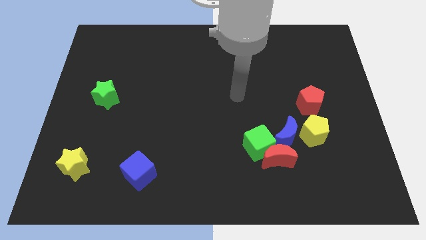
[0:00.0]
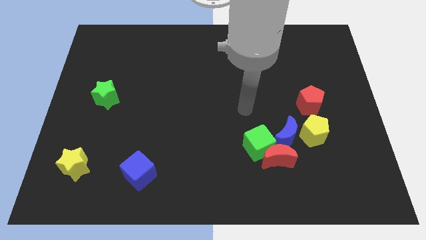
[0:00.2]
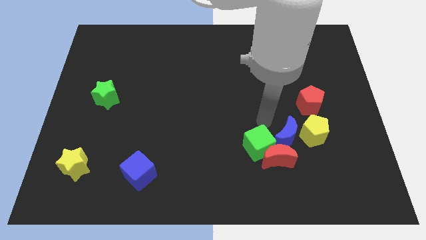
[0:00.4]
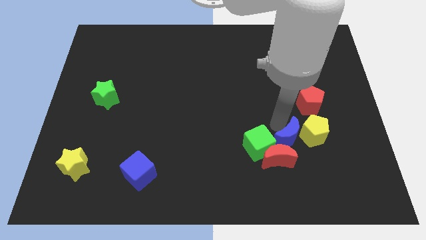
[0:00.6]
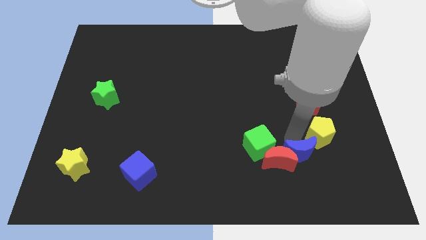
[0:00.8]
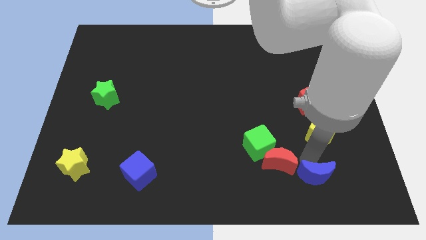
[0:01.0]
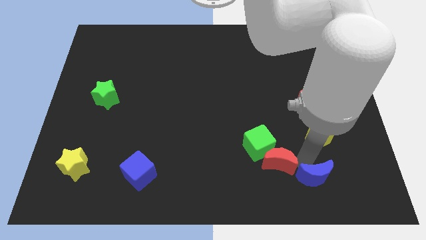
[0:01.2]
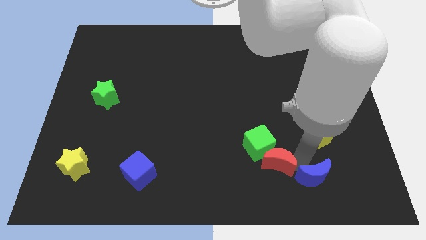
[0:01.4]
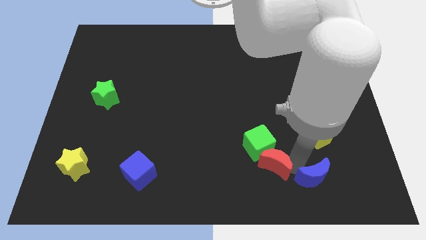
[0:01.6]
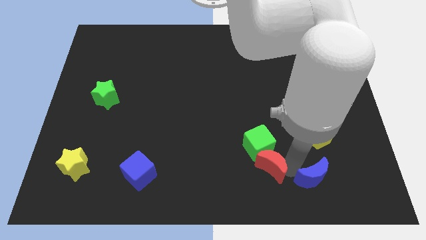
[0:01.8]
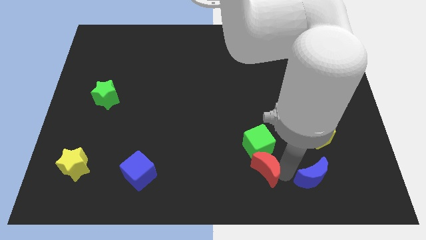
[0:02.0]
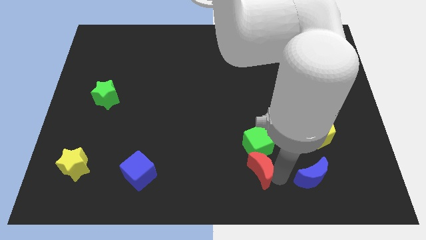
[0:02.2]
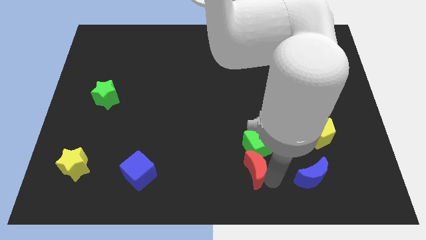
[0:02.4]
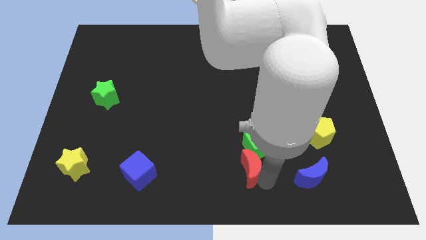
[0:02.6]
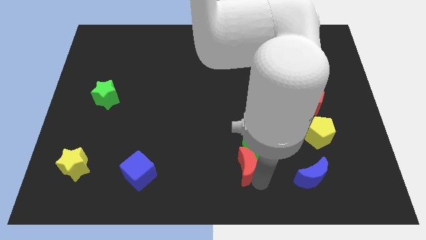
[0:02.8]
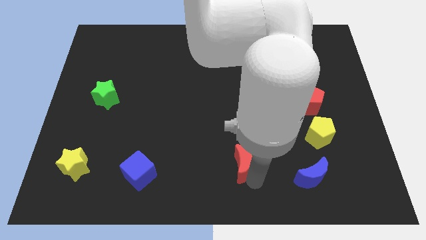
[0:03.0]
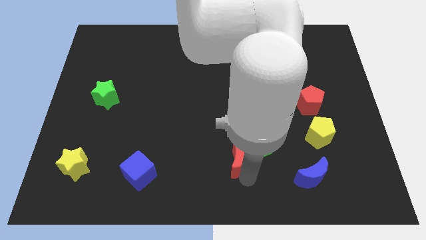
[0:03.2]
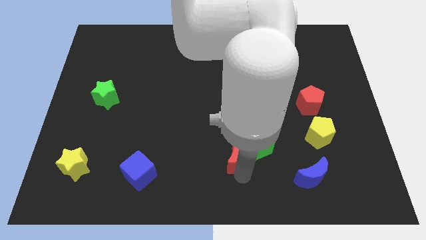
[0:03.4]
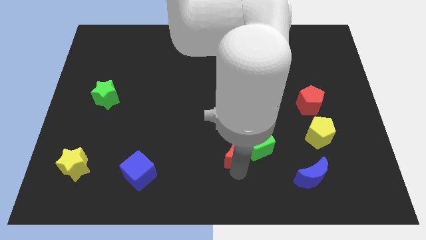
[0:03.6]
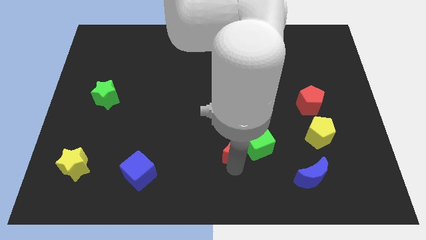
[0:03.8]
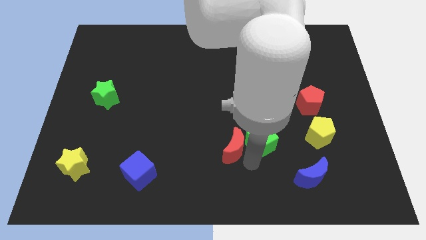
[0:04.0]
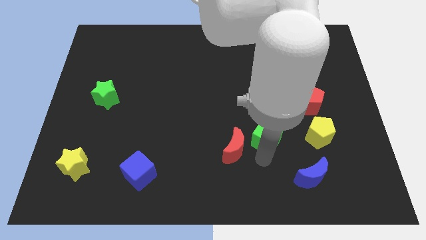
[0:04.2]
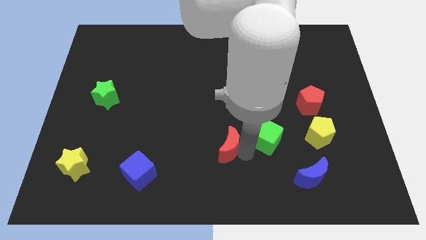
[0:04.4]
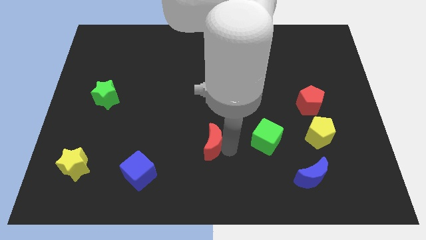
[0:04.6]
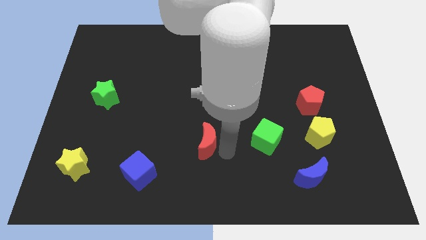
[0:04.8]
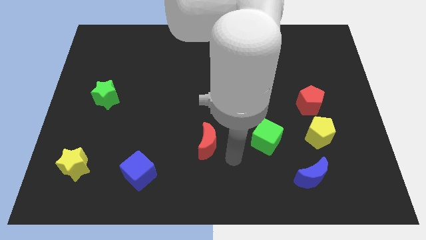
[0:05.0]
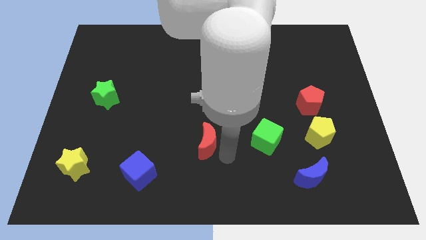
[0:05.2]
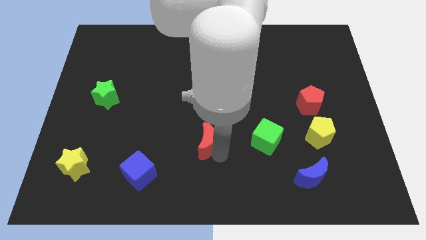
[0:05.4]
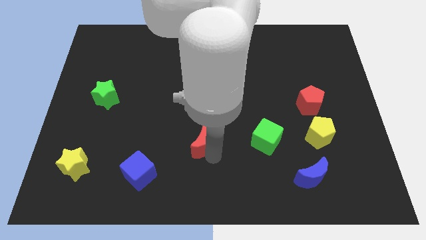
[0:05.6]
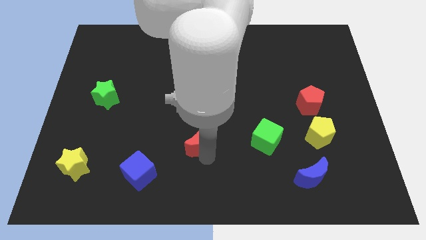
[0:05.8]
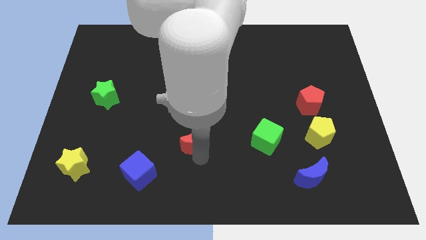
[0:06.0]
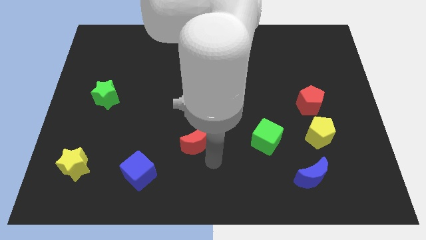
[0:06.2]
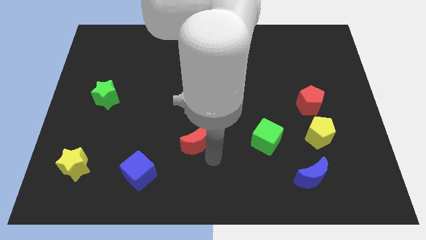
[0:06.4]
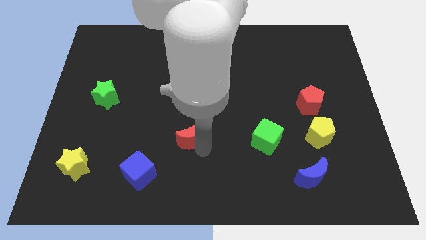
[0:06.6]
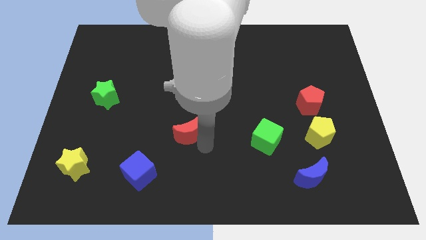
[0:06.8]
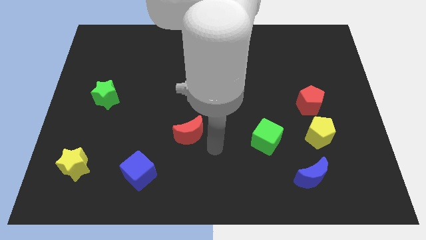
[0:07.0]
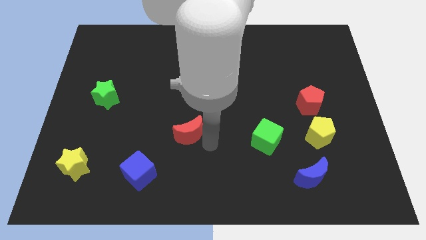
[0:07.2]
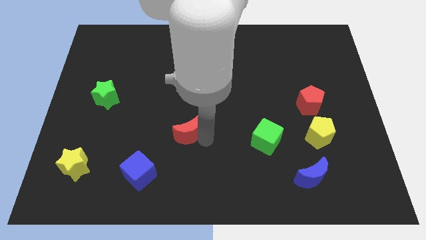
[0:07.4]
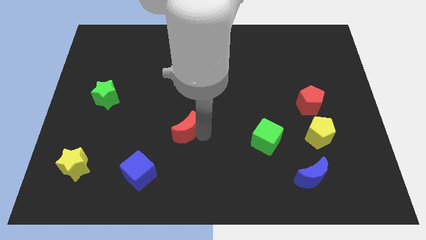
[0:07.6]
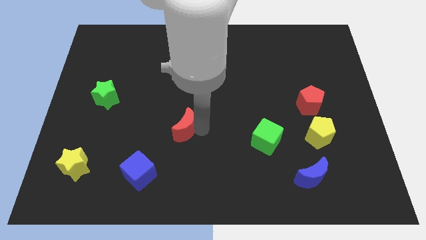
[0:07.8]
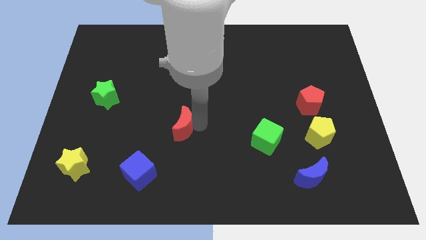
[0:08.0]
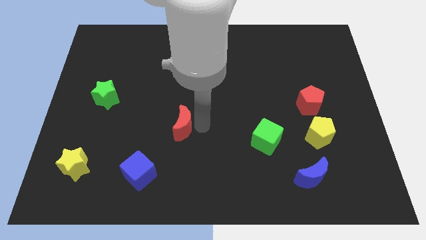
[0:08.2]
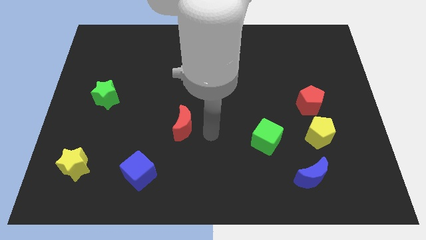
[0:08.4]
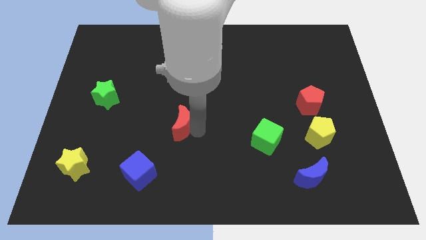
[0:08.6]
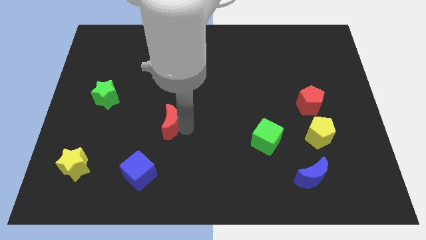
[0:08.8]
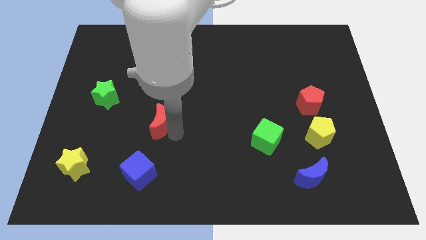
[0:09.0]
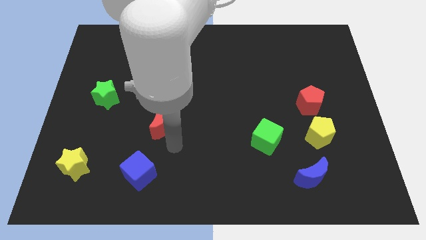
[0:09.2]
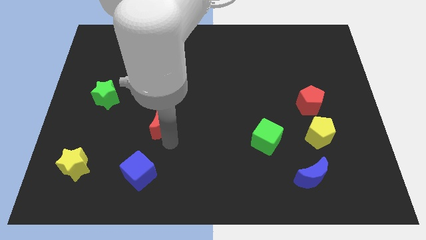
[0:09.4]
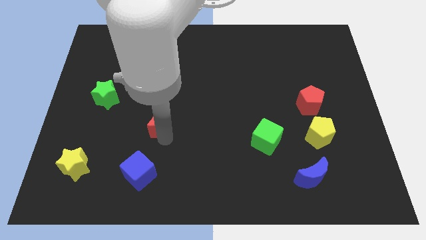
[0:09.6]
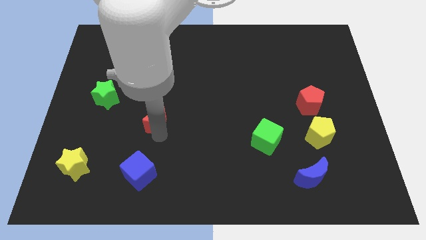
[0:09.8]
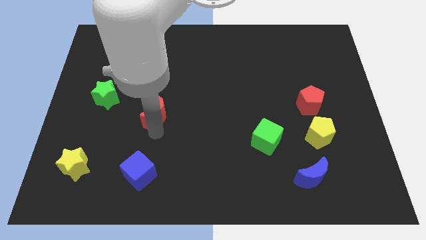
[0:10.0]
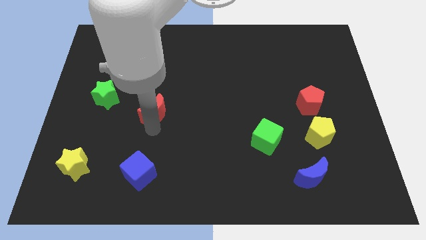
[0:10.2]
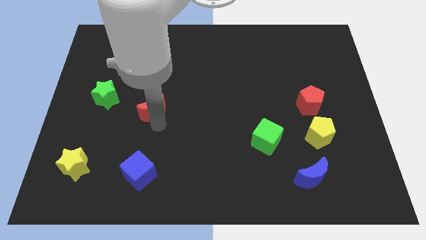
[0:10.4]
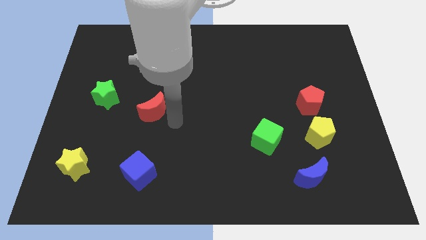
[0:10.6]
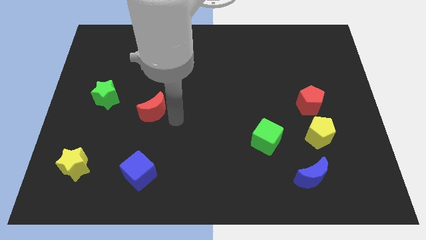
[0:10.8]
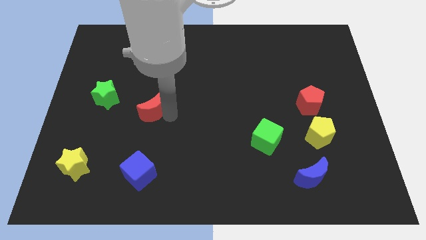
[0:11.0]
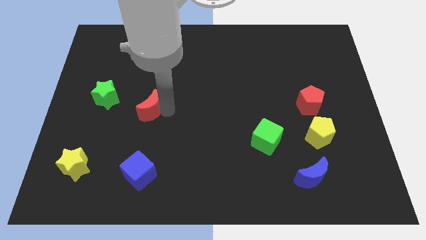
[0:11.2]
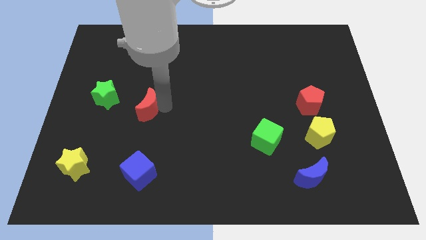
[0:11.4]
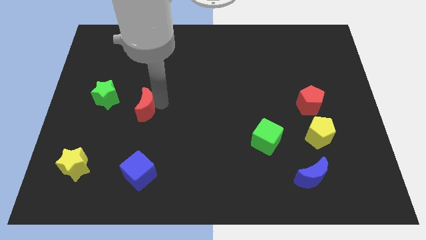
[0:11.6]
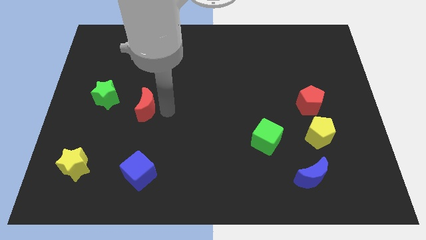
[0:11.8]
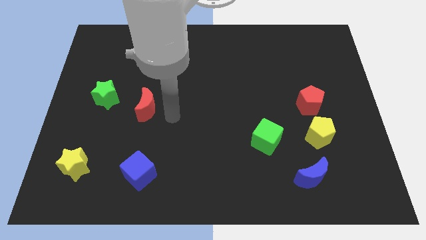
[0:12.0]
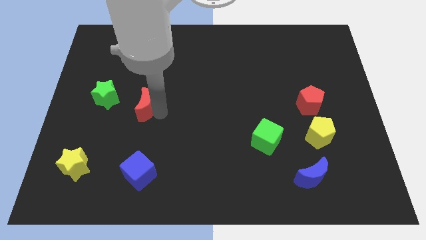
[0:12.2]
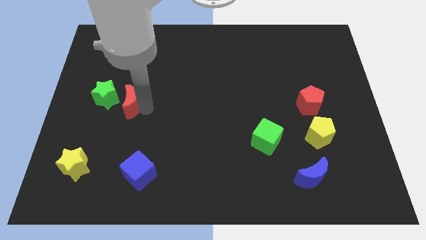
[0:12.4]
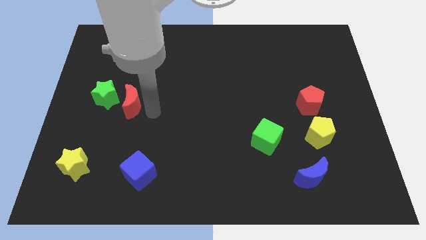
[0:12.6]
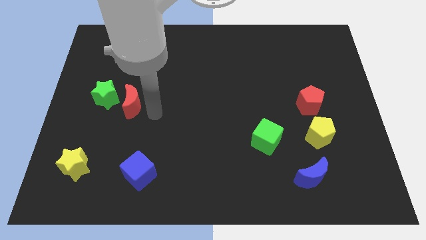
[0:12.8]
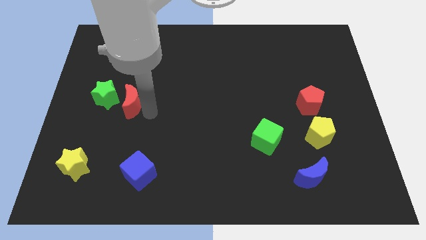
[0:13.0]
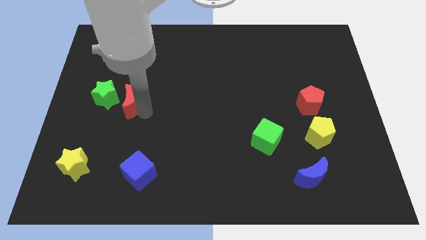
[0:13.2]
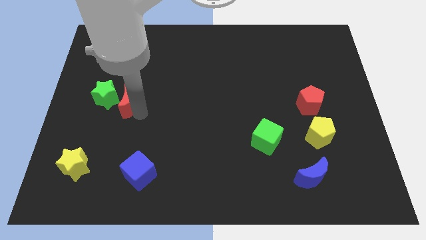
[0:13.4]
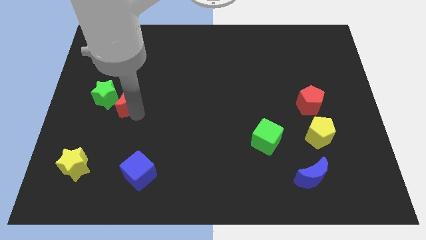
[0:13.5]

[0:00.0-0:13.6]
move the red moon close to the green star

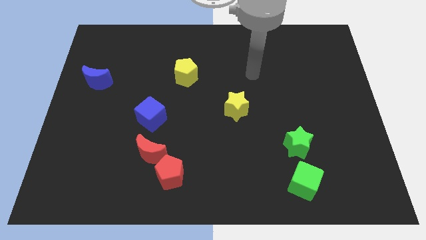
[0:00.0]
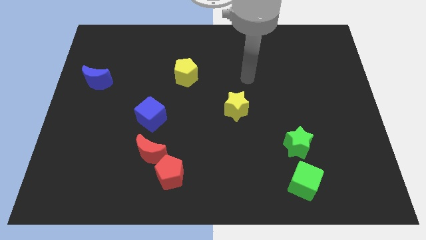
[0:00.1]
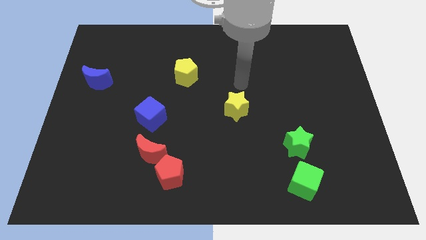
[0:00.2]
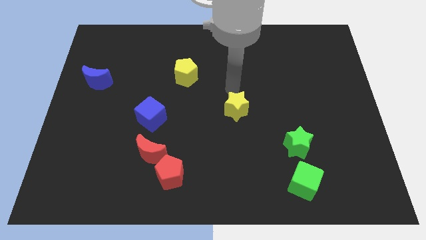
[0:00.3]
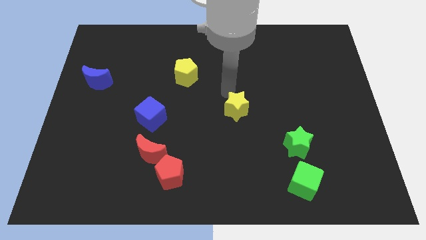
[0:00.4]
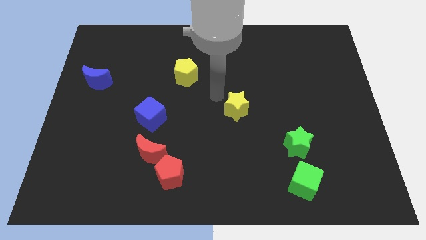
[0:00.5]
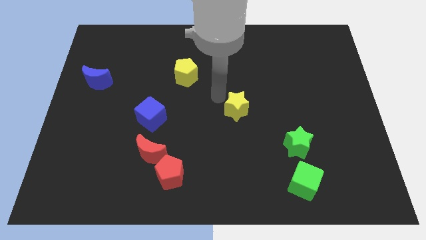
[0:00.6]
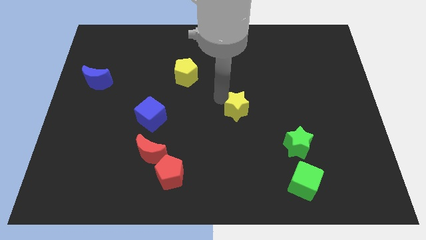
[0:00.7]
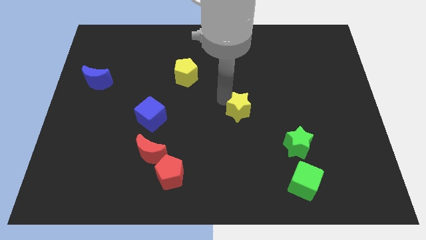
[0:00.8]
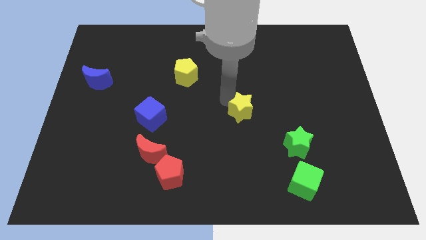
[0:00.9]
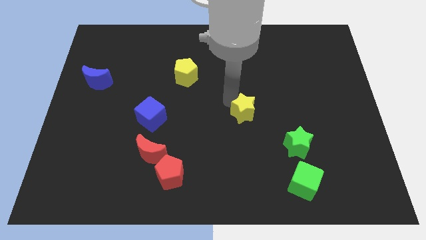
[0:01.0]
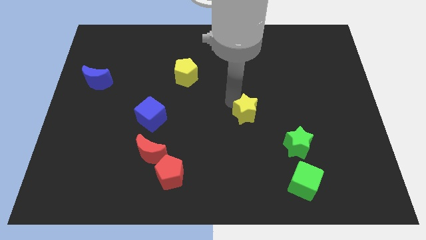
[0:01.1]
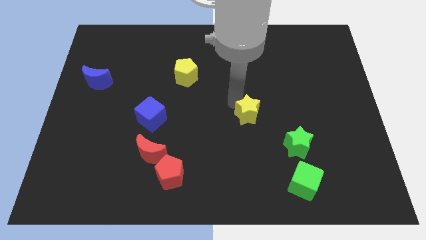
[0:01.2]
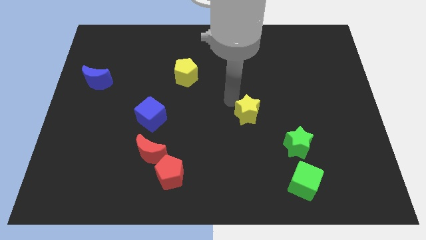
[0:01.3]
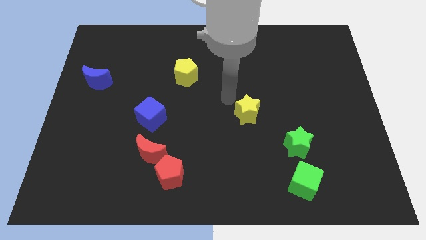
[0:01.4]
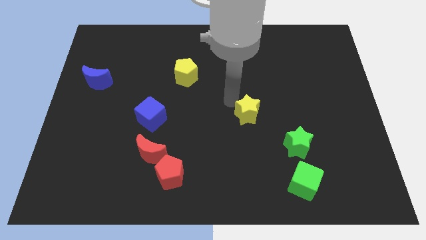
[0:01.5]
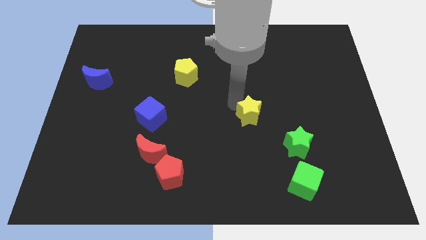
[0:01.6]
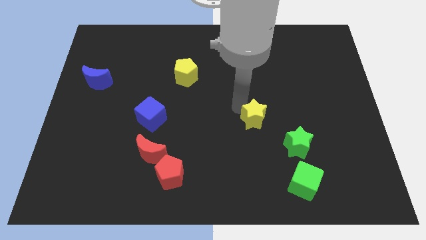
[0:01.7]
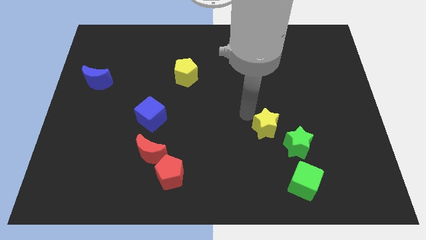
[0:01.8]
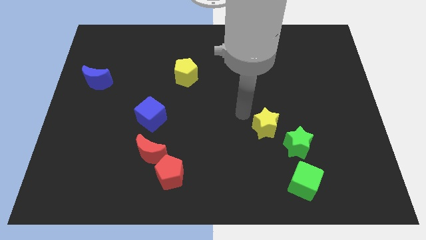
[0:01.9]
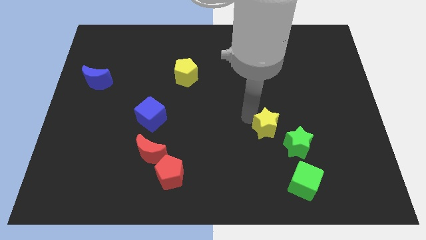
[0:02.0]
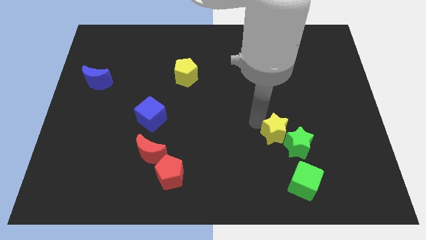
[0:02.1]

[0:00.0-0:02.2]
slide the yellow star to the green star
